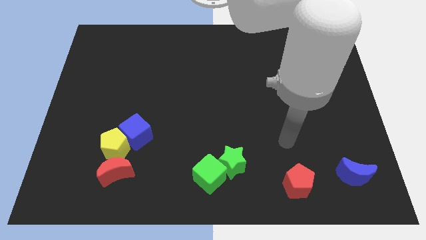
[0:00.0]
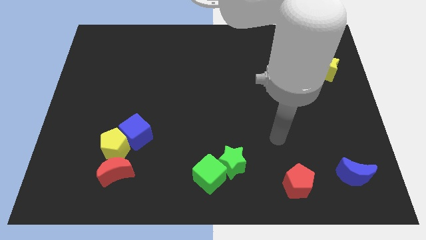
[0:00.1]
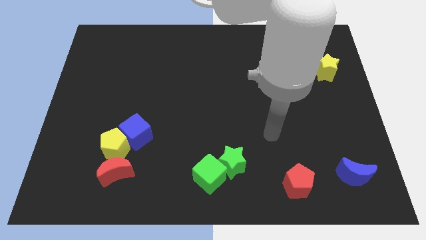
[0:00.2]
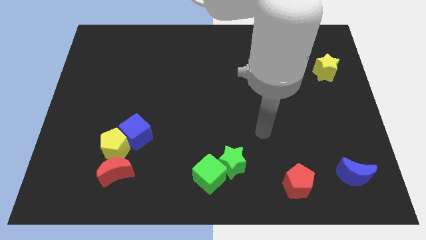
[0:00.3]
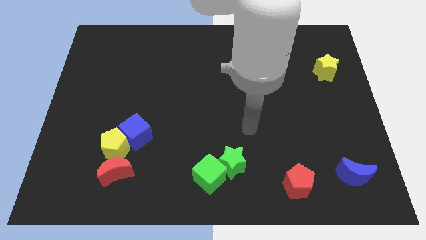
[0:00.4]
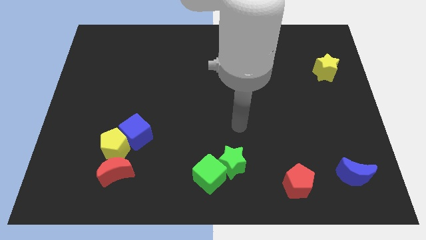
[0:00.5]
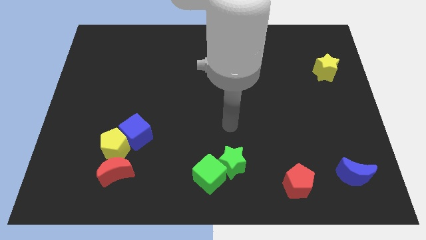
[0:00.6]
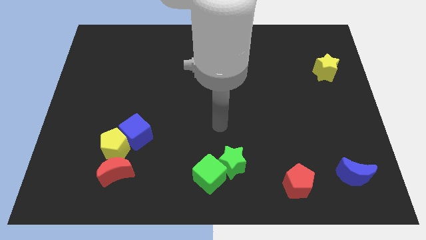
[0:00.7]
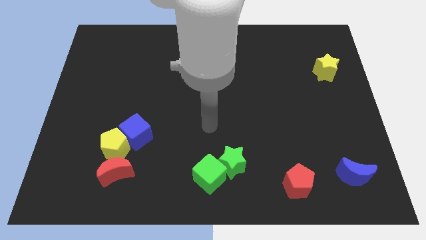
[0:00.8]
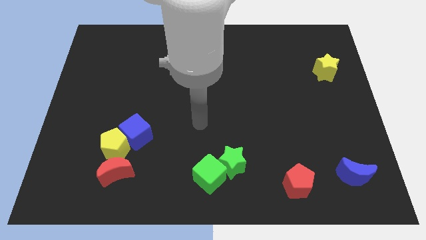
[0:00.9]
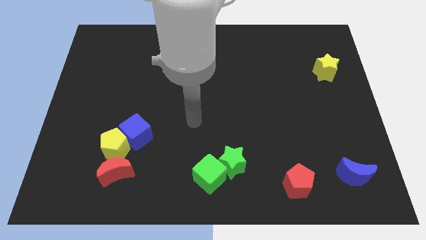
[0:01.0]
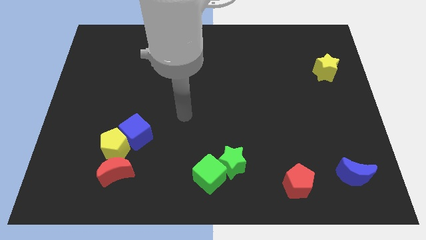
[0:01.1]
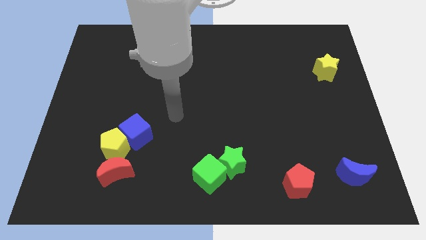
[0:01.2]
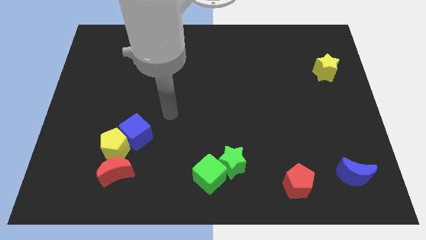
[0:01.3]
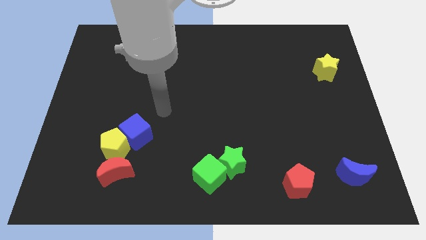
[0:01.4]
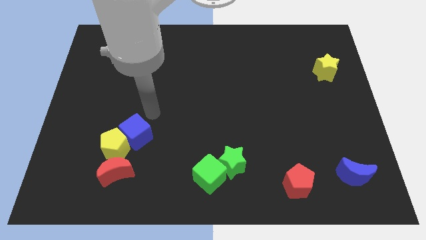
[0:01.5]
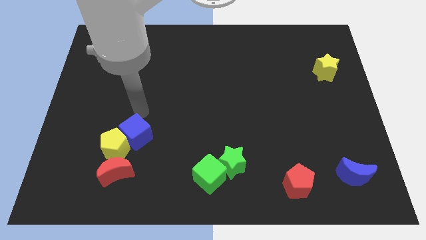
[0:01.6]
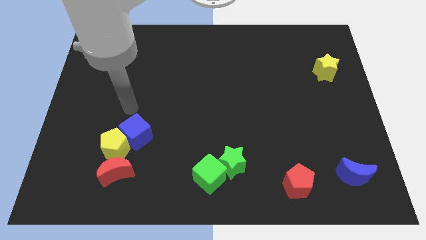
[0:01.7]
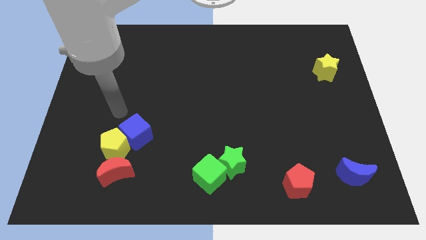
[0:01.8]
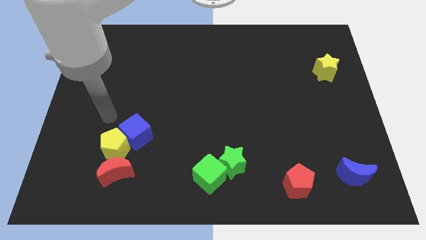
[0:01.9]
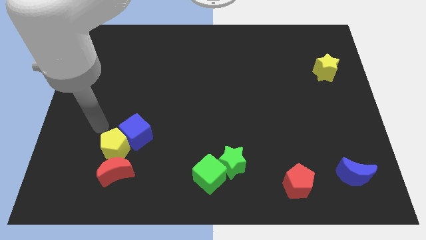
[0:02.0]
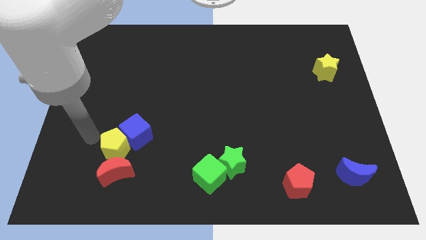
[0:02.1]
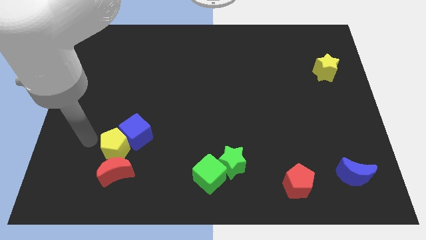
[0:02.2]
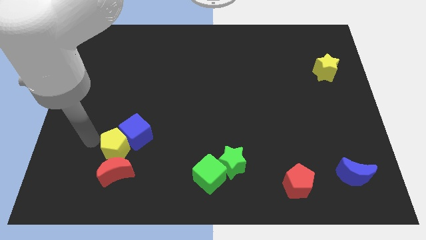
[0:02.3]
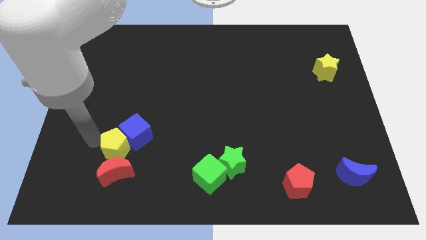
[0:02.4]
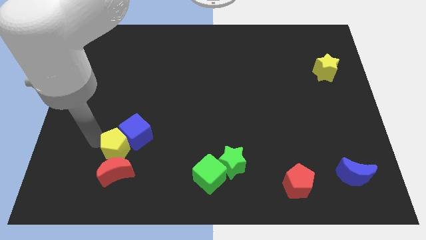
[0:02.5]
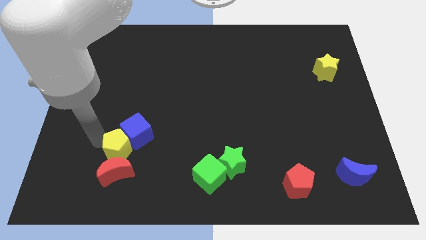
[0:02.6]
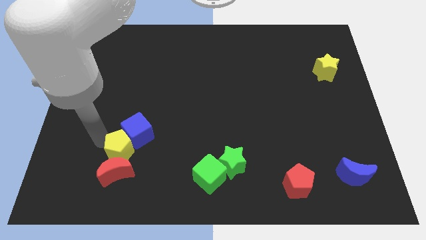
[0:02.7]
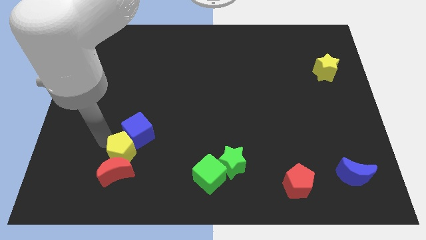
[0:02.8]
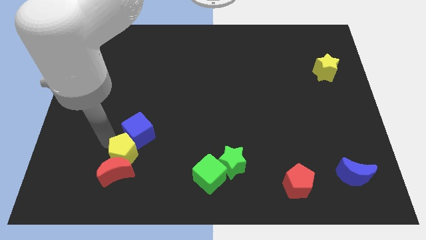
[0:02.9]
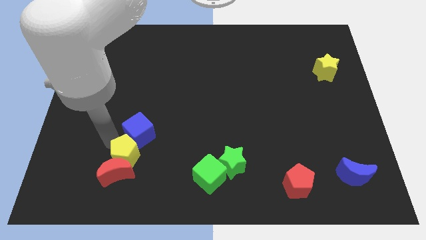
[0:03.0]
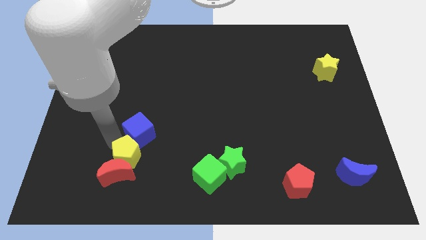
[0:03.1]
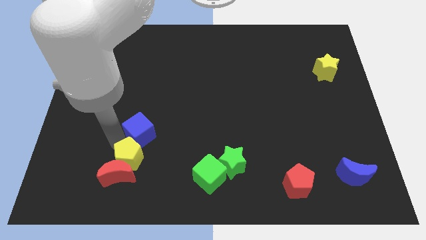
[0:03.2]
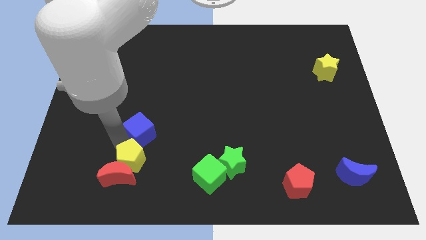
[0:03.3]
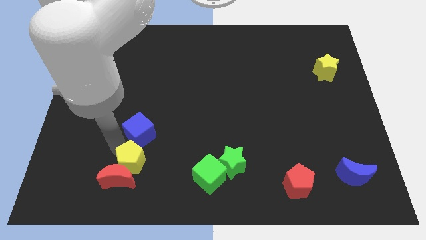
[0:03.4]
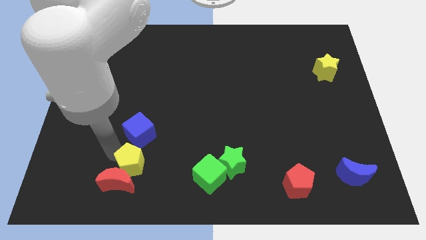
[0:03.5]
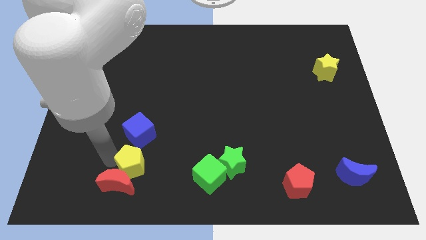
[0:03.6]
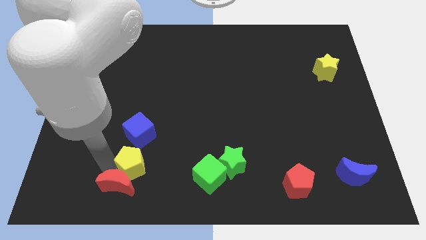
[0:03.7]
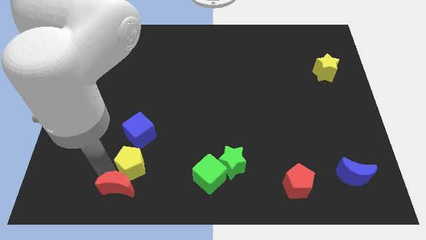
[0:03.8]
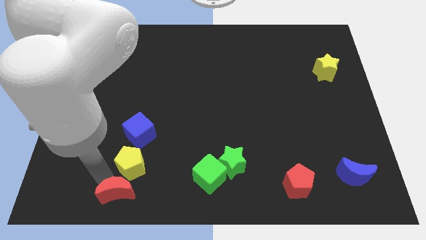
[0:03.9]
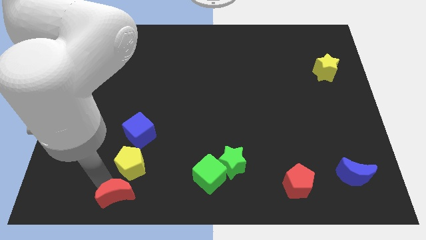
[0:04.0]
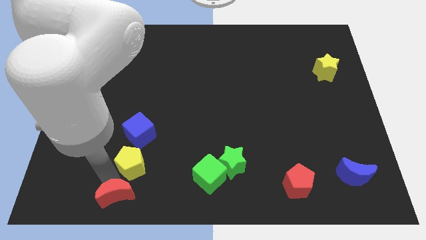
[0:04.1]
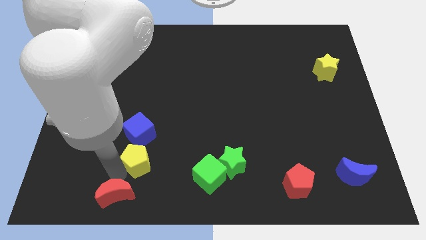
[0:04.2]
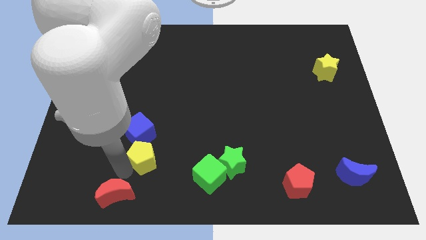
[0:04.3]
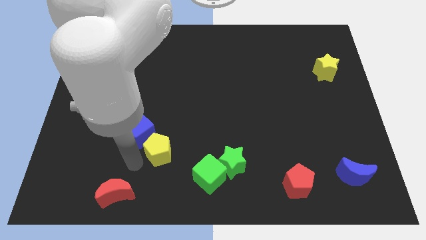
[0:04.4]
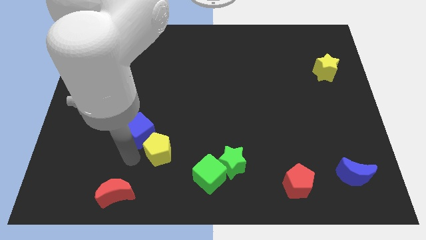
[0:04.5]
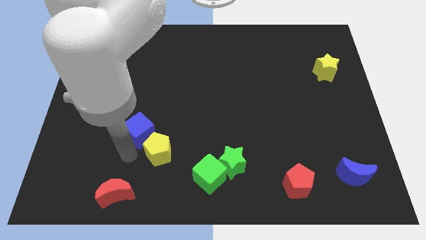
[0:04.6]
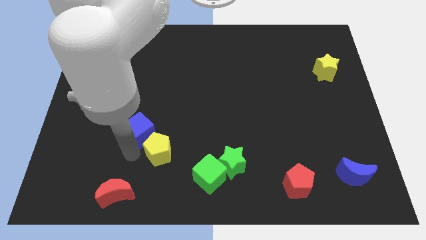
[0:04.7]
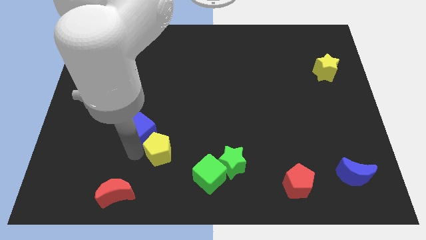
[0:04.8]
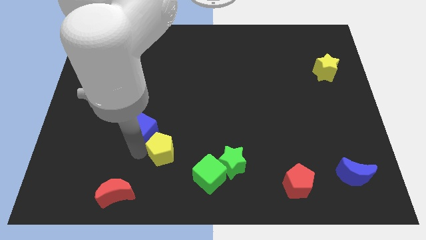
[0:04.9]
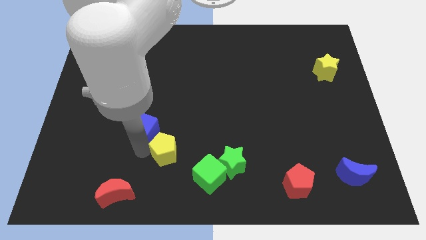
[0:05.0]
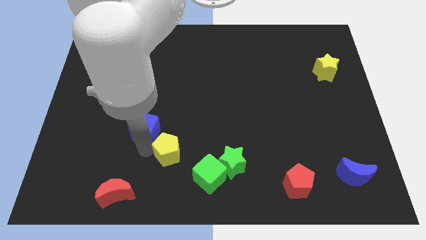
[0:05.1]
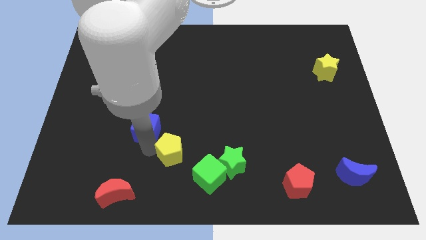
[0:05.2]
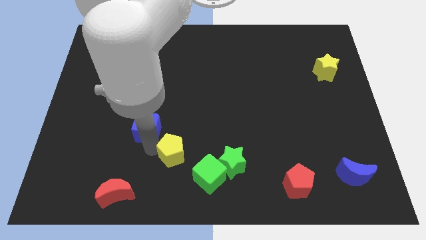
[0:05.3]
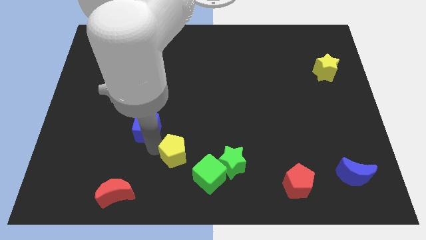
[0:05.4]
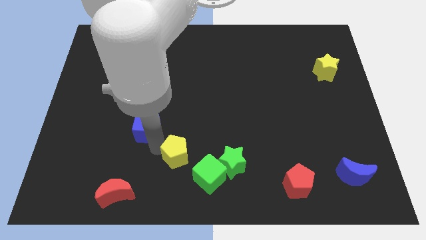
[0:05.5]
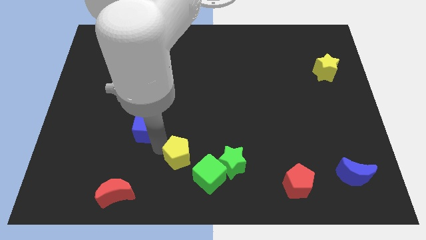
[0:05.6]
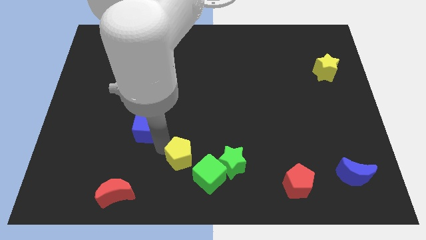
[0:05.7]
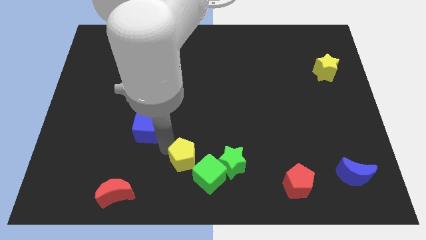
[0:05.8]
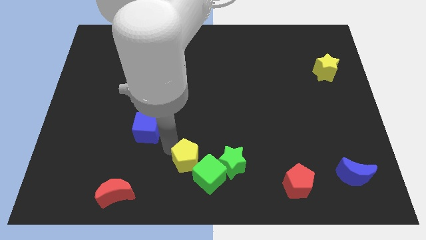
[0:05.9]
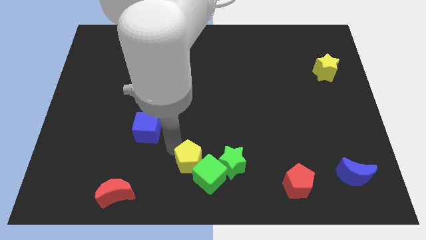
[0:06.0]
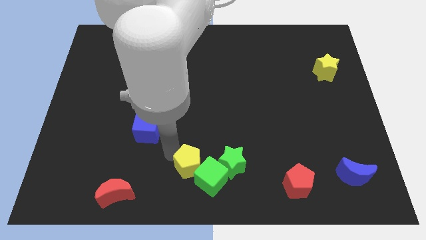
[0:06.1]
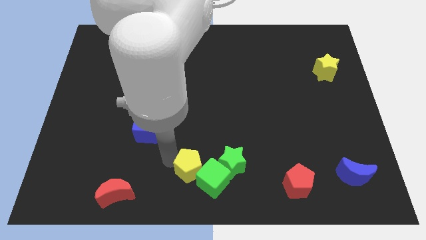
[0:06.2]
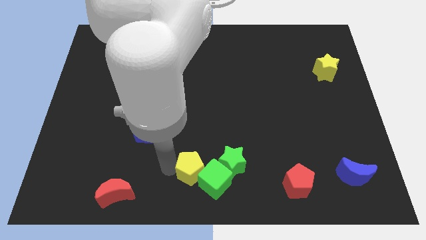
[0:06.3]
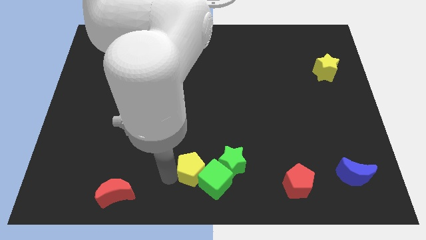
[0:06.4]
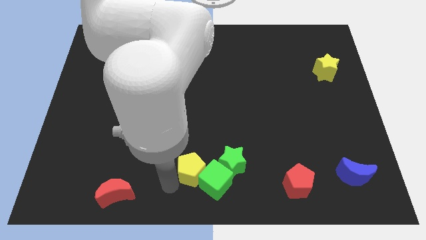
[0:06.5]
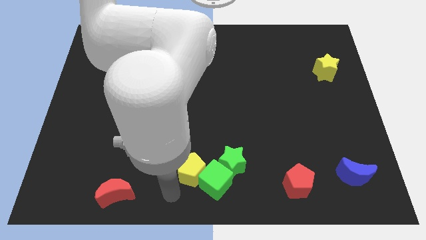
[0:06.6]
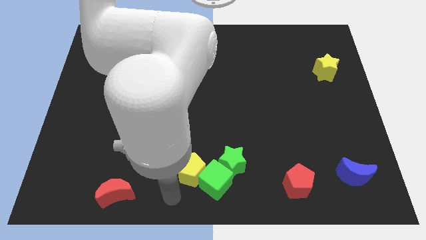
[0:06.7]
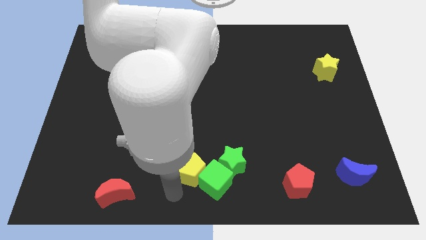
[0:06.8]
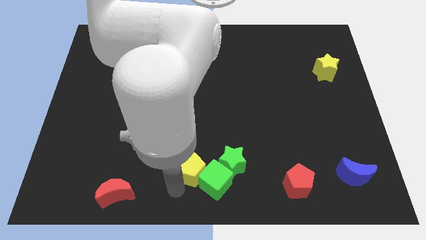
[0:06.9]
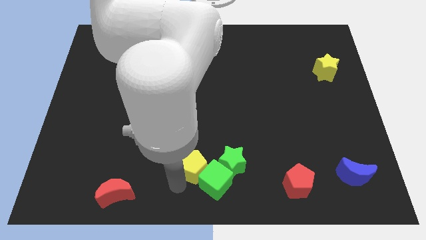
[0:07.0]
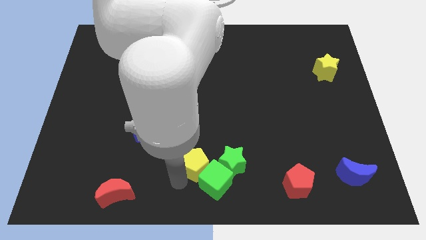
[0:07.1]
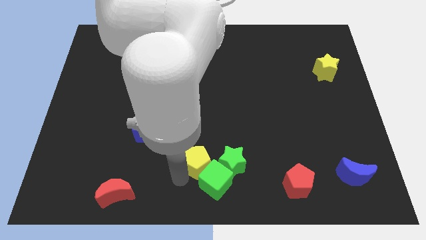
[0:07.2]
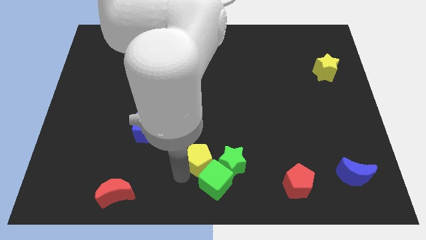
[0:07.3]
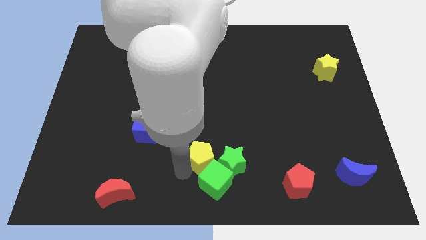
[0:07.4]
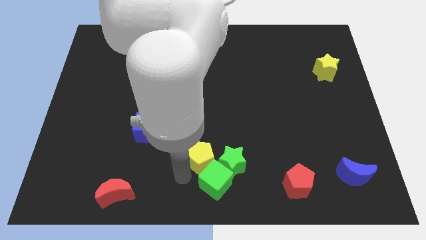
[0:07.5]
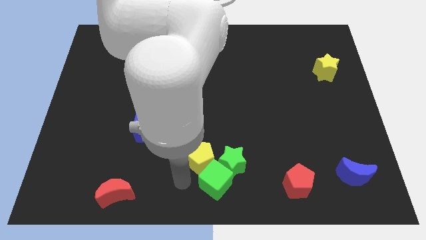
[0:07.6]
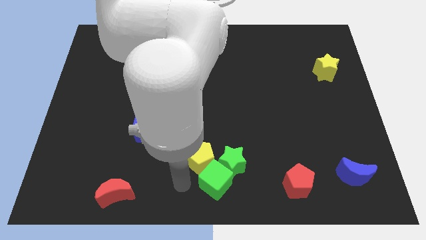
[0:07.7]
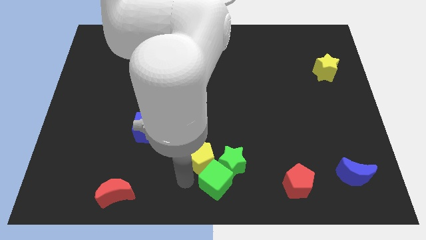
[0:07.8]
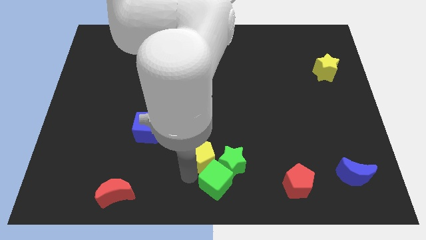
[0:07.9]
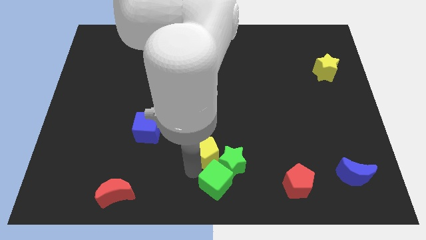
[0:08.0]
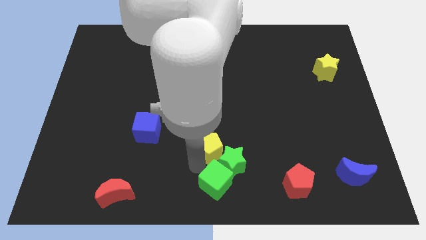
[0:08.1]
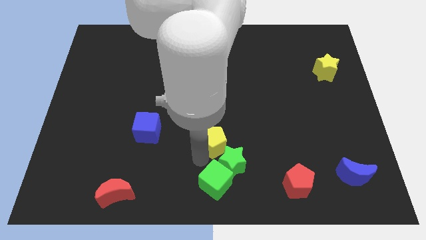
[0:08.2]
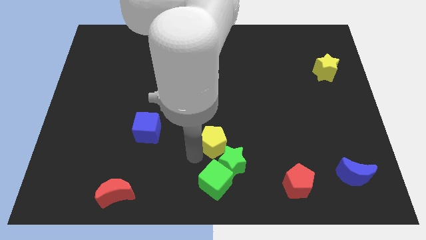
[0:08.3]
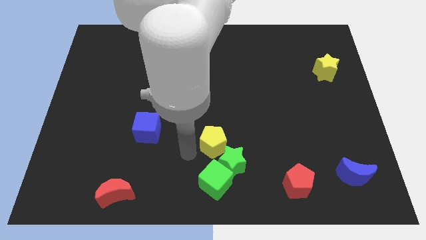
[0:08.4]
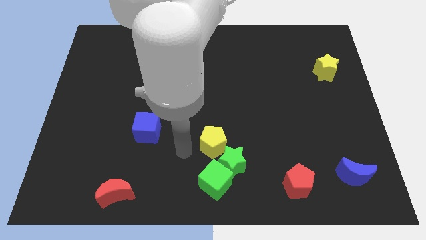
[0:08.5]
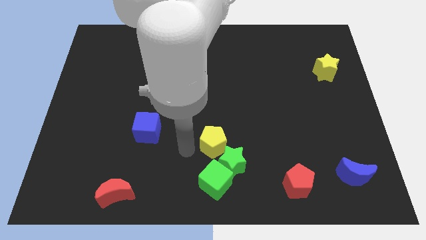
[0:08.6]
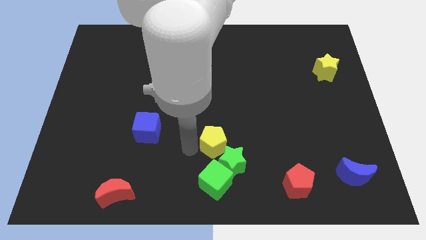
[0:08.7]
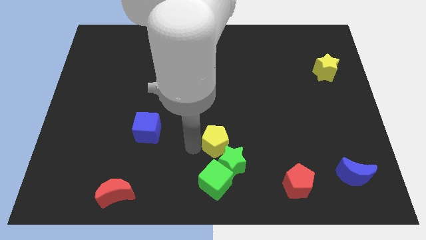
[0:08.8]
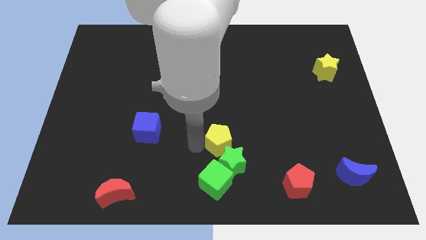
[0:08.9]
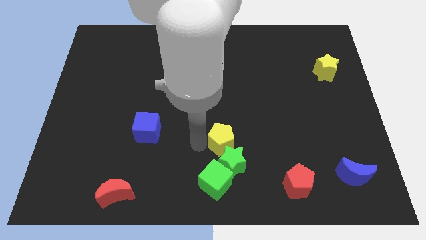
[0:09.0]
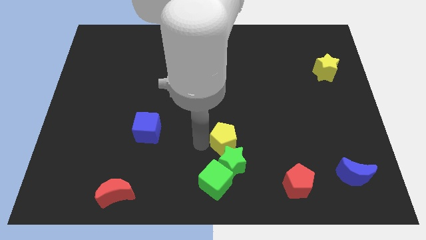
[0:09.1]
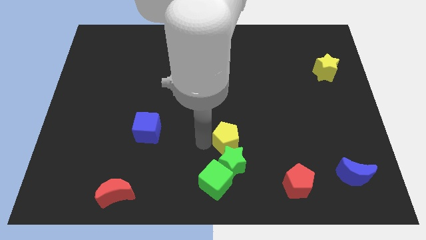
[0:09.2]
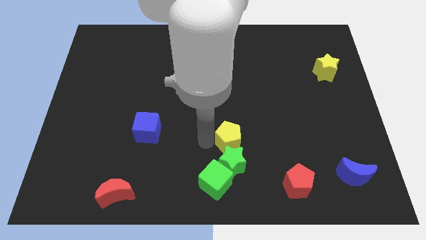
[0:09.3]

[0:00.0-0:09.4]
slide the yellow pentagon diagonally up and to the right of the green star
